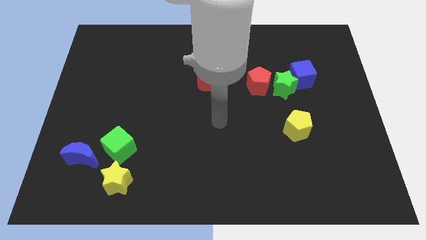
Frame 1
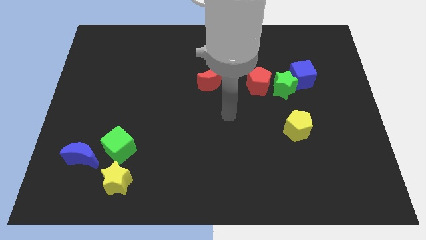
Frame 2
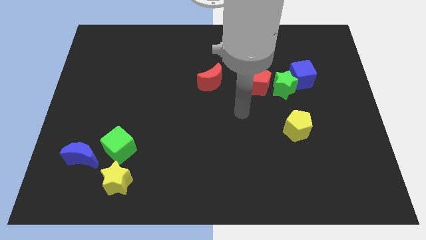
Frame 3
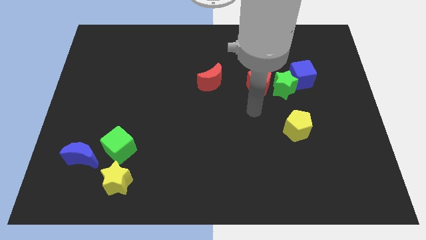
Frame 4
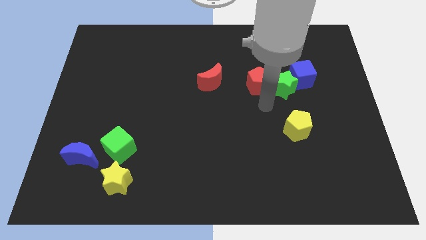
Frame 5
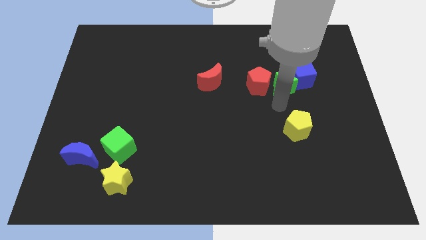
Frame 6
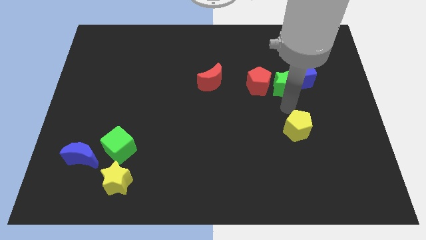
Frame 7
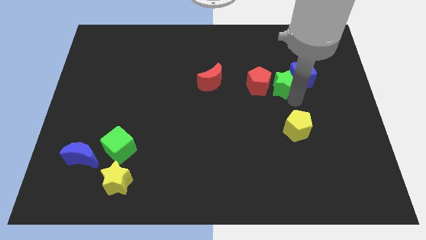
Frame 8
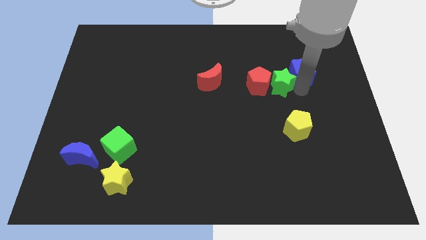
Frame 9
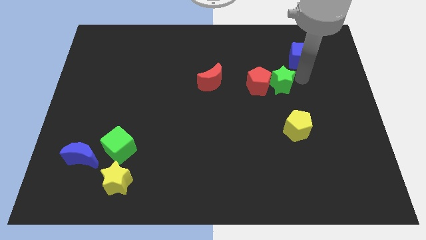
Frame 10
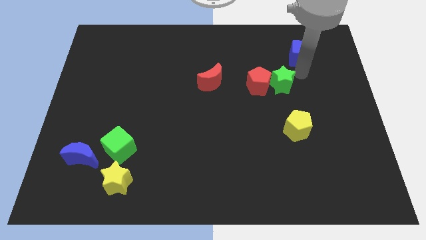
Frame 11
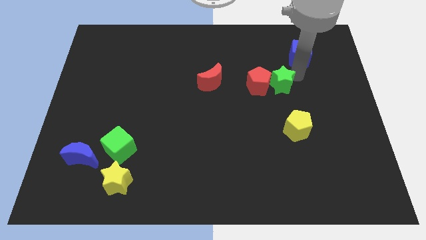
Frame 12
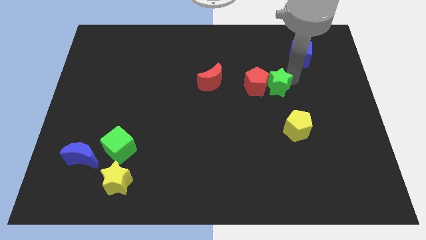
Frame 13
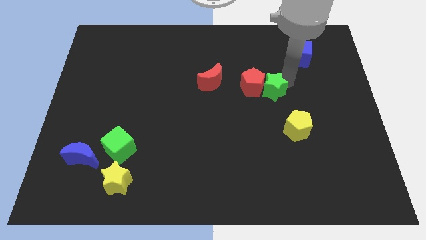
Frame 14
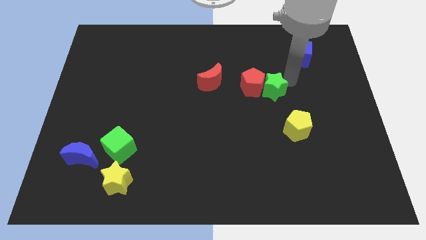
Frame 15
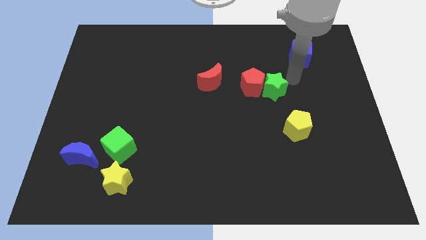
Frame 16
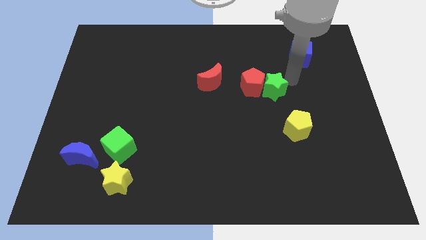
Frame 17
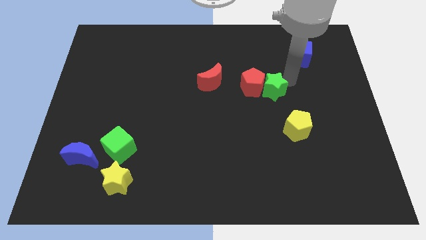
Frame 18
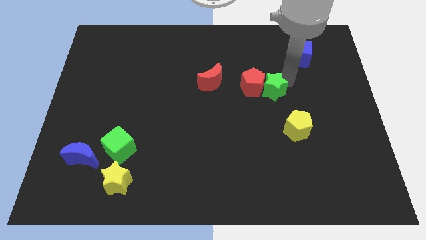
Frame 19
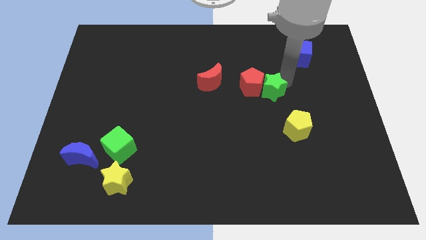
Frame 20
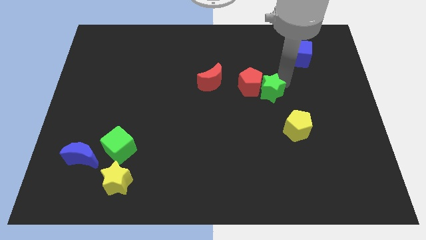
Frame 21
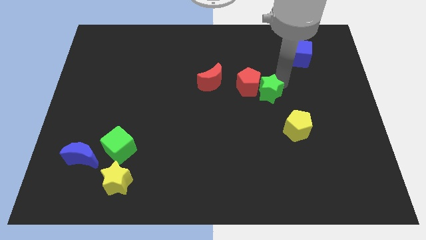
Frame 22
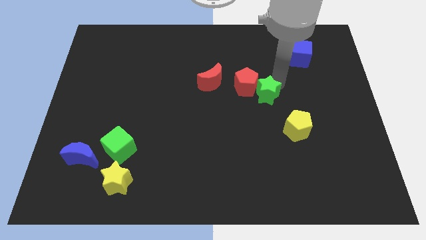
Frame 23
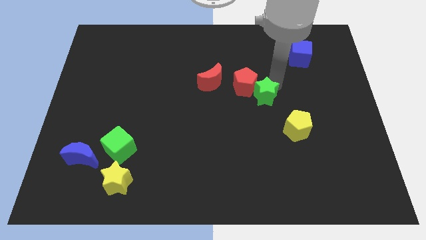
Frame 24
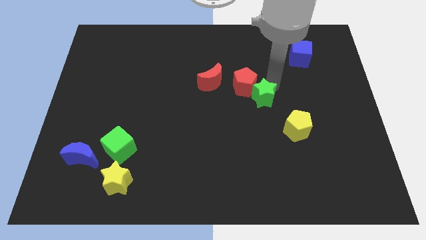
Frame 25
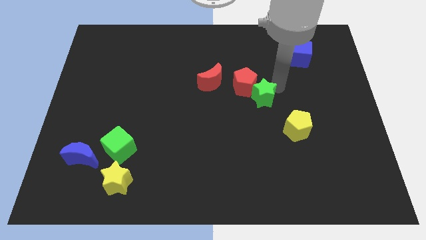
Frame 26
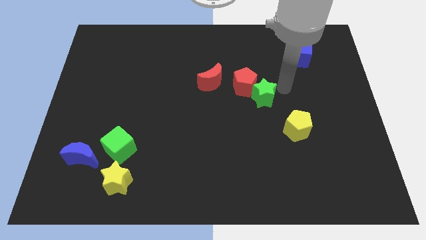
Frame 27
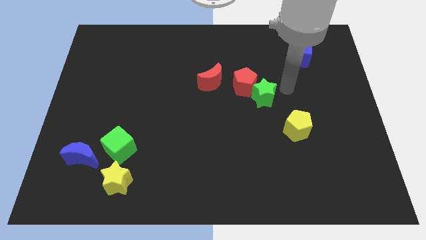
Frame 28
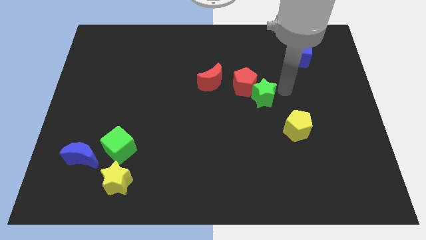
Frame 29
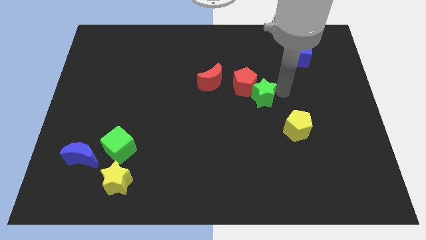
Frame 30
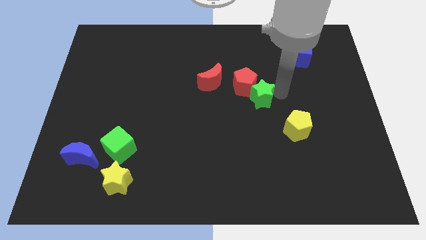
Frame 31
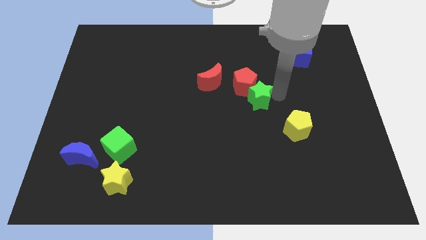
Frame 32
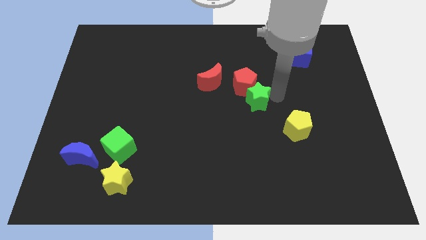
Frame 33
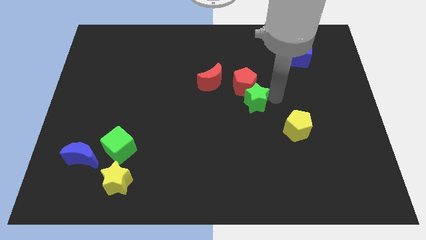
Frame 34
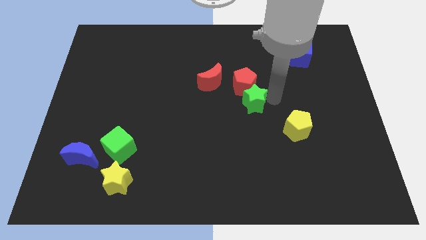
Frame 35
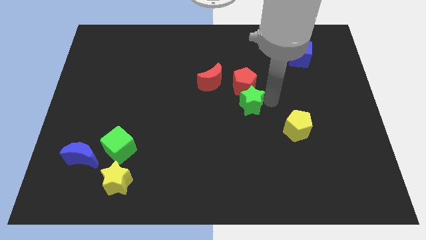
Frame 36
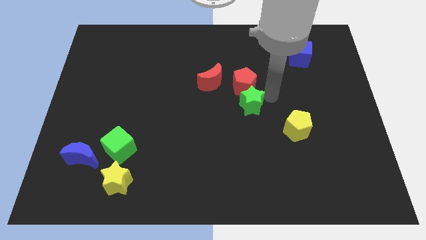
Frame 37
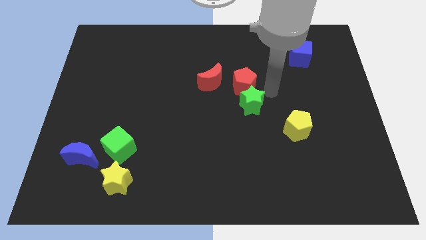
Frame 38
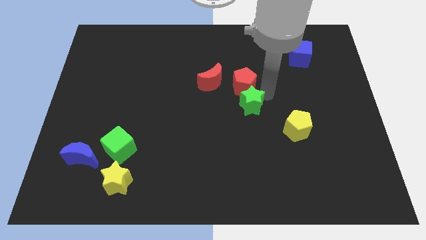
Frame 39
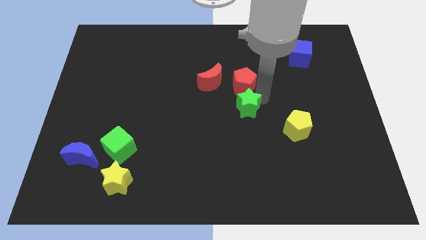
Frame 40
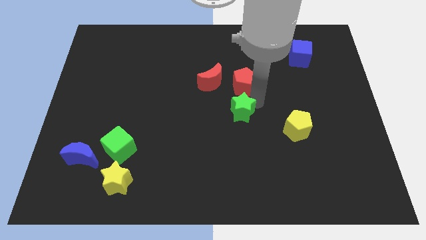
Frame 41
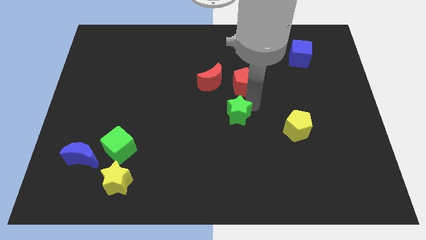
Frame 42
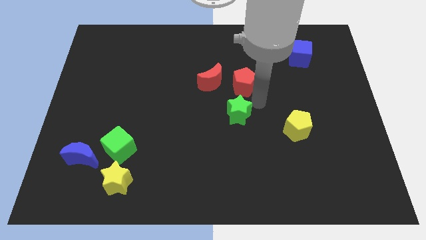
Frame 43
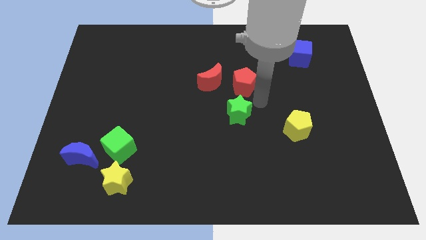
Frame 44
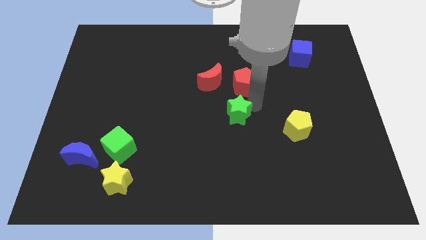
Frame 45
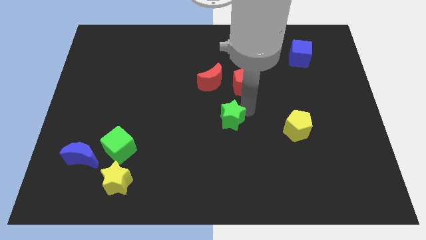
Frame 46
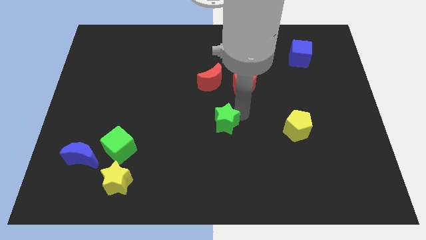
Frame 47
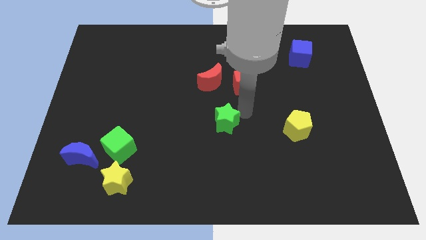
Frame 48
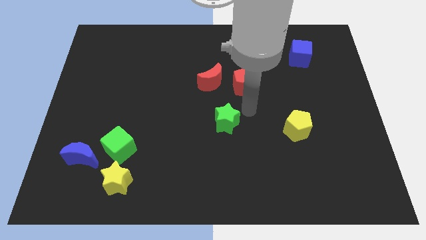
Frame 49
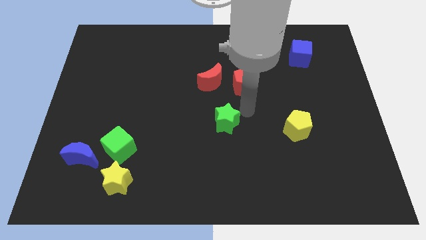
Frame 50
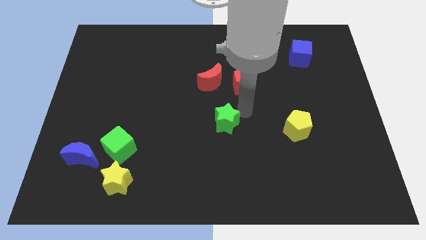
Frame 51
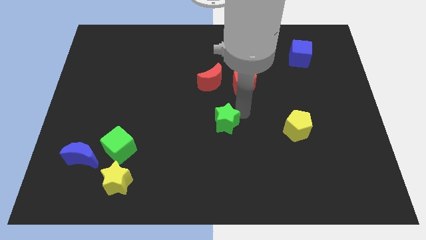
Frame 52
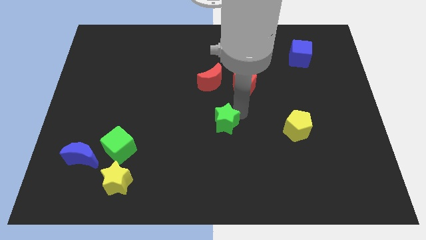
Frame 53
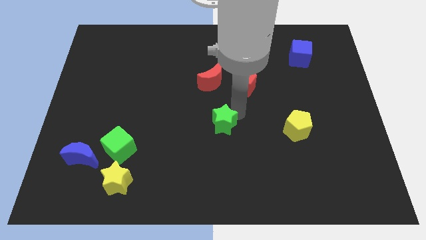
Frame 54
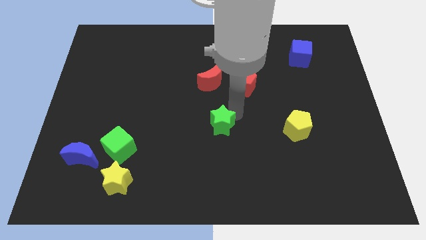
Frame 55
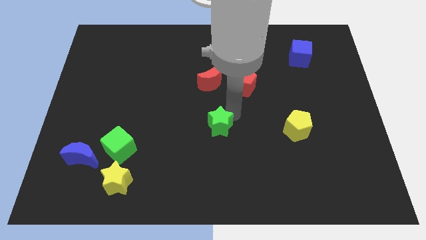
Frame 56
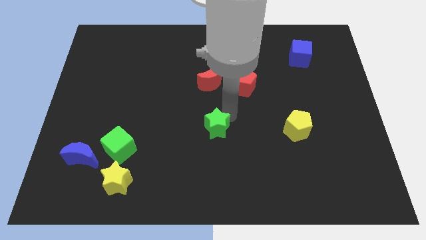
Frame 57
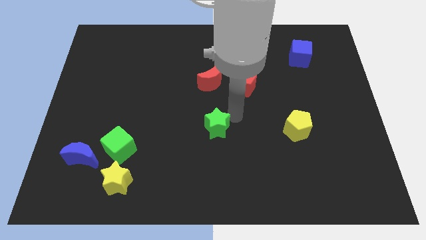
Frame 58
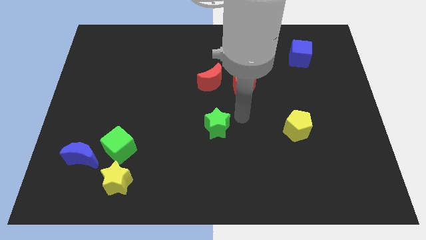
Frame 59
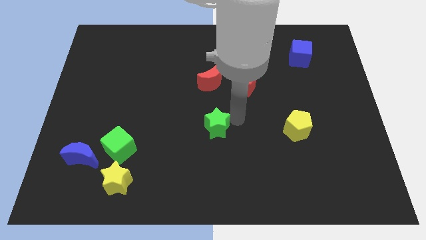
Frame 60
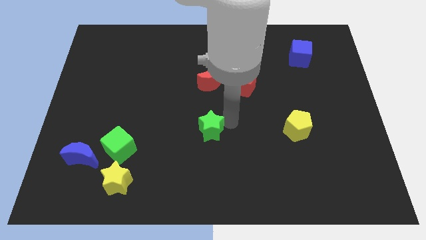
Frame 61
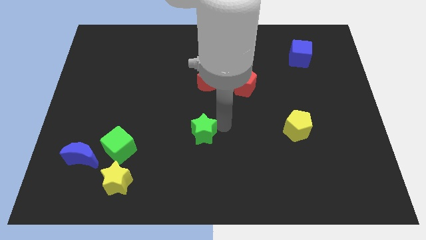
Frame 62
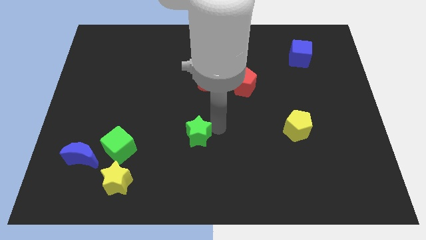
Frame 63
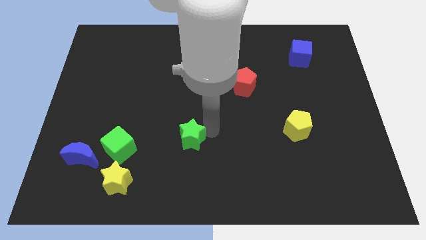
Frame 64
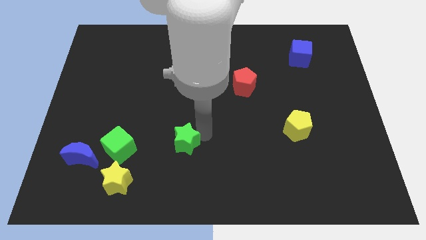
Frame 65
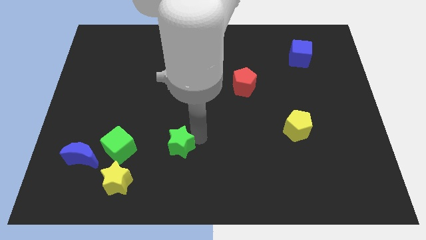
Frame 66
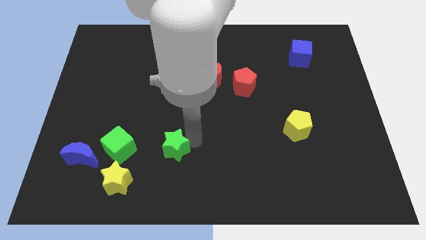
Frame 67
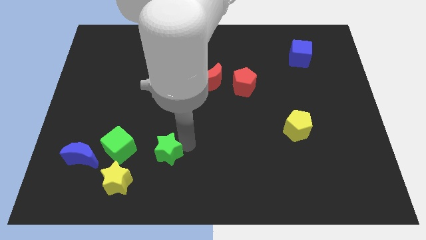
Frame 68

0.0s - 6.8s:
move the green star to the top right side of the yellow star

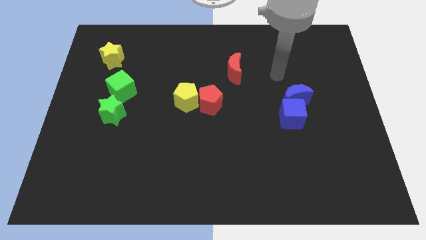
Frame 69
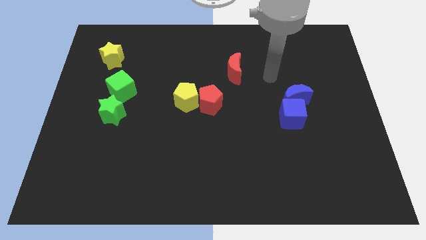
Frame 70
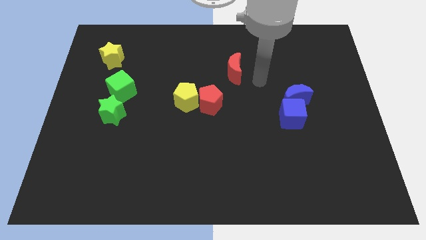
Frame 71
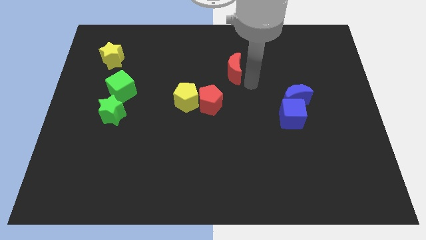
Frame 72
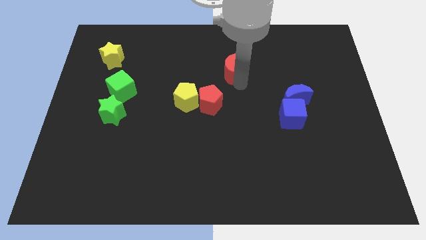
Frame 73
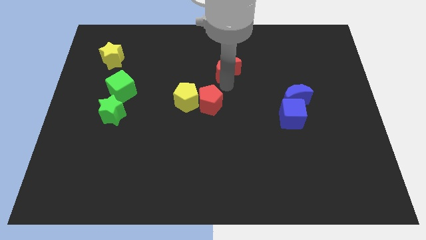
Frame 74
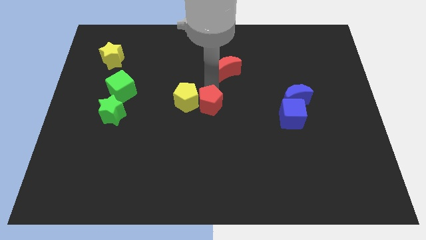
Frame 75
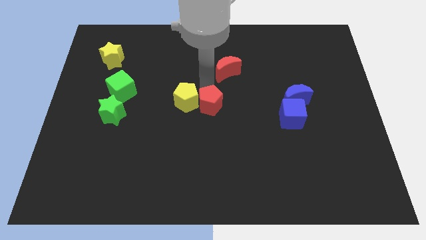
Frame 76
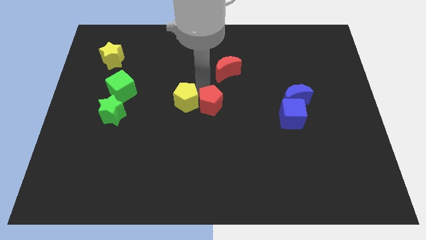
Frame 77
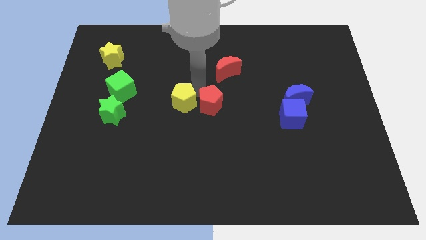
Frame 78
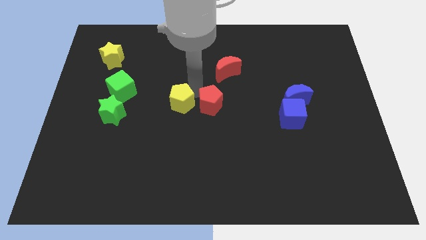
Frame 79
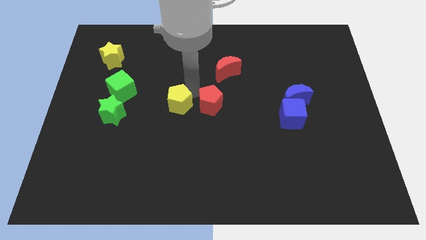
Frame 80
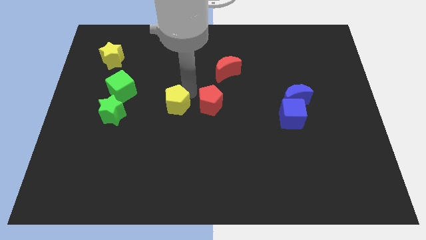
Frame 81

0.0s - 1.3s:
put the yellow pentagon right of the green star
